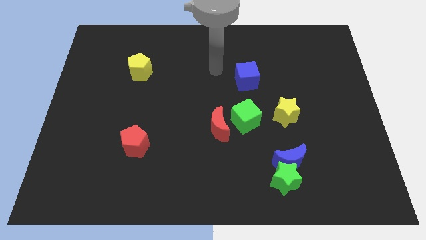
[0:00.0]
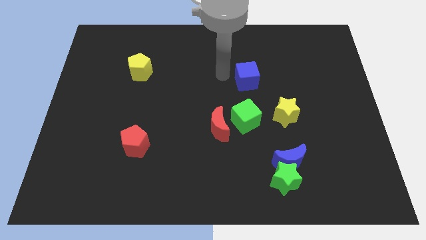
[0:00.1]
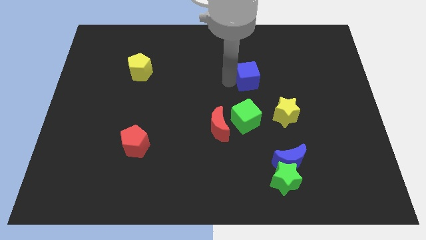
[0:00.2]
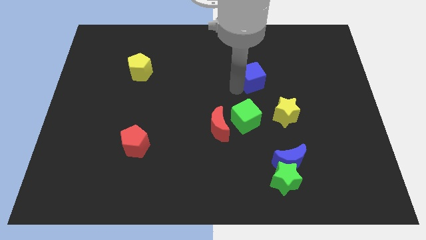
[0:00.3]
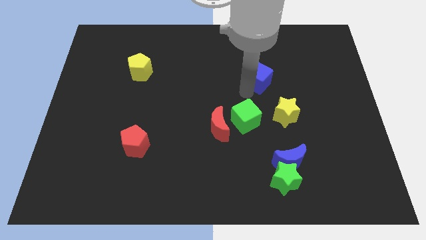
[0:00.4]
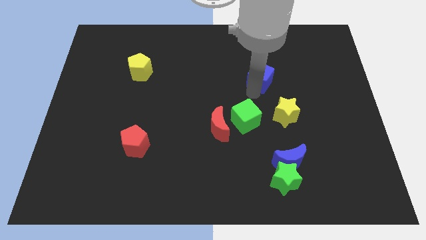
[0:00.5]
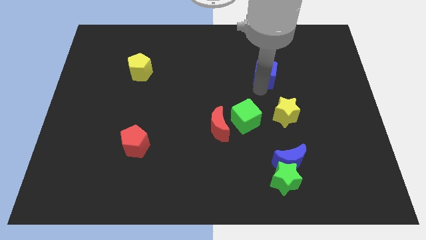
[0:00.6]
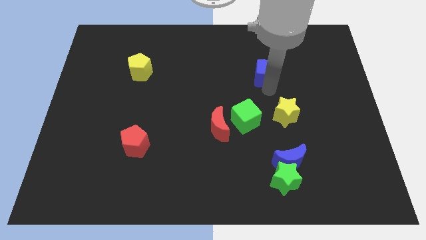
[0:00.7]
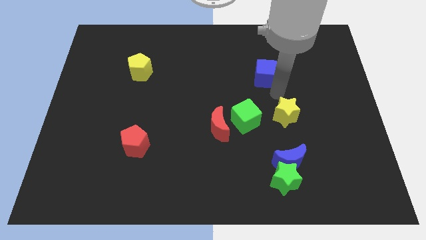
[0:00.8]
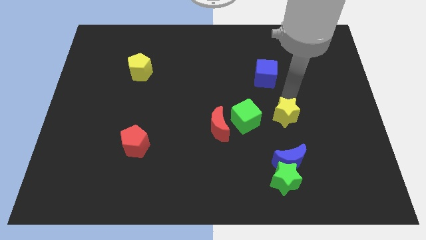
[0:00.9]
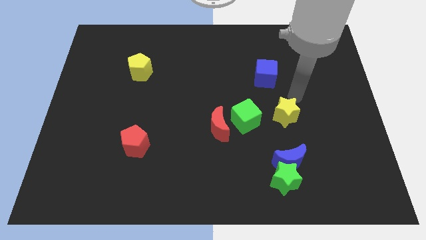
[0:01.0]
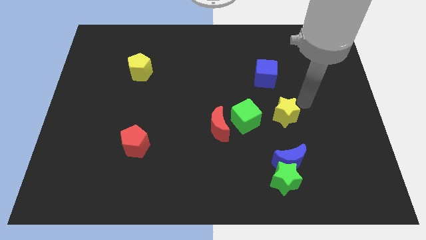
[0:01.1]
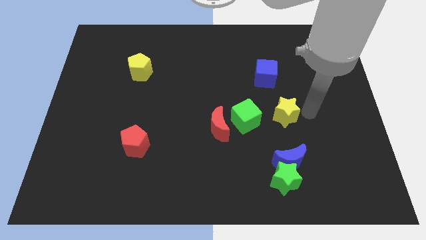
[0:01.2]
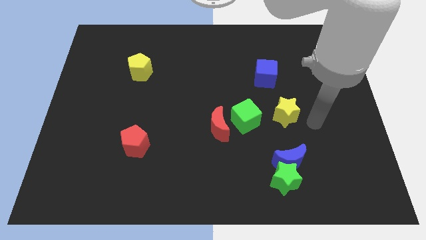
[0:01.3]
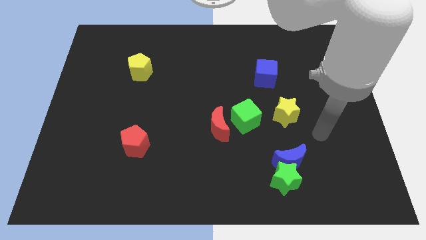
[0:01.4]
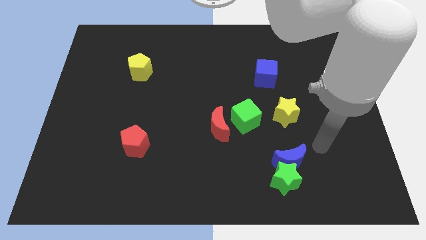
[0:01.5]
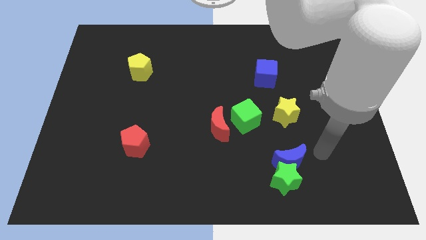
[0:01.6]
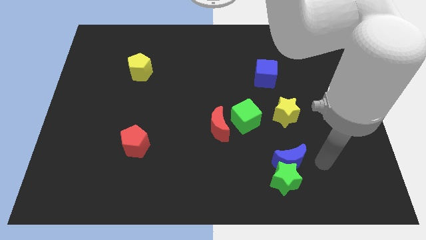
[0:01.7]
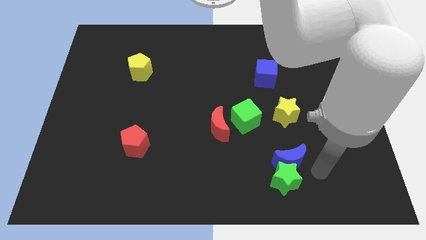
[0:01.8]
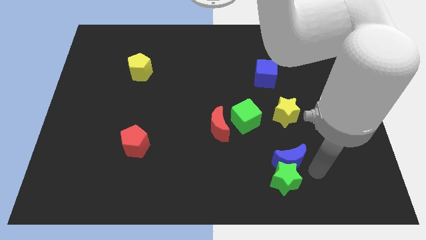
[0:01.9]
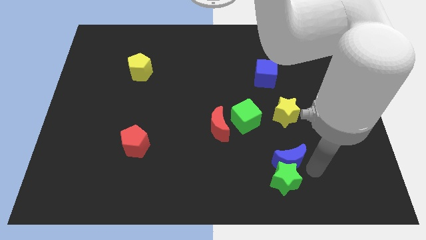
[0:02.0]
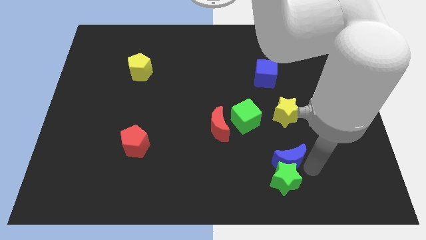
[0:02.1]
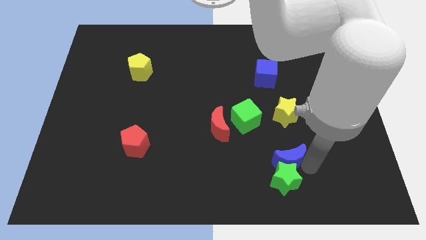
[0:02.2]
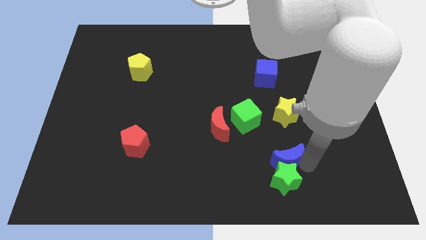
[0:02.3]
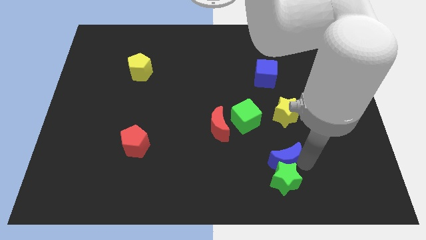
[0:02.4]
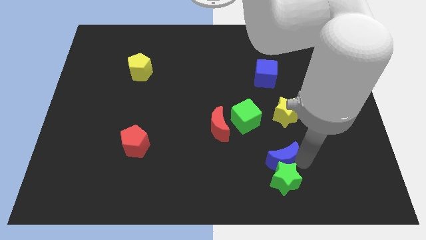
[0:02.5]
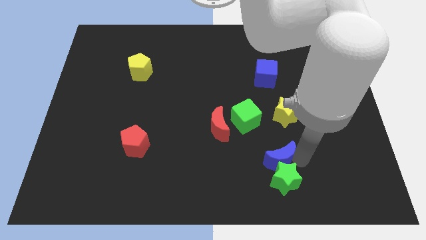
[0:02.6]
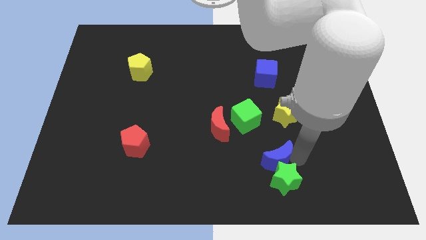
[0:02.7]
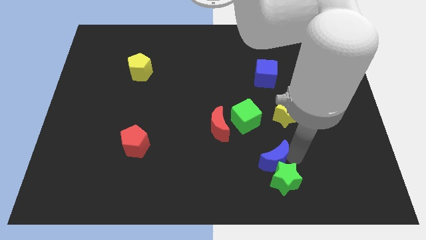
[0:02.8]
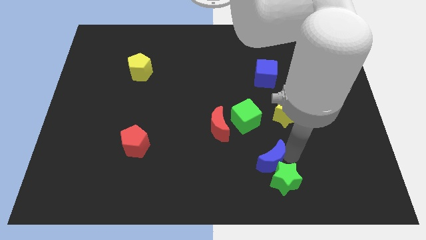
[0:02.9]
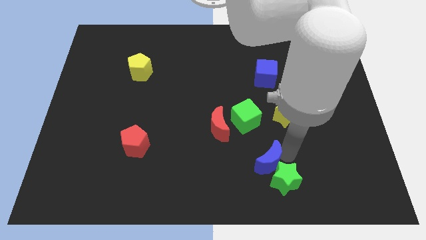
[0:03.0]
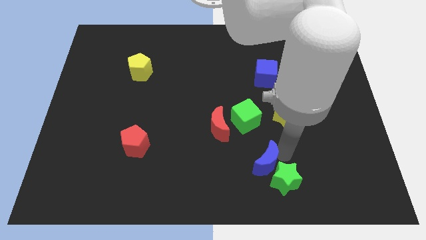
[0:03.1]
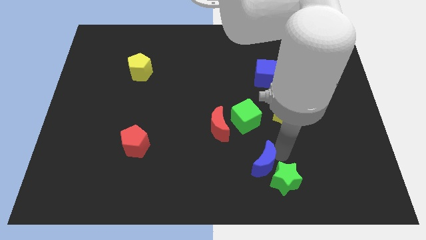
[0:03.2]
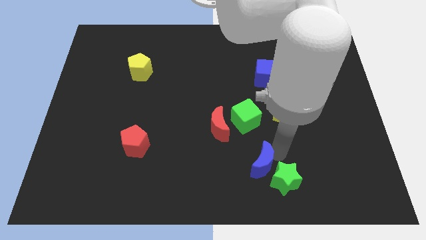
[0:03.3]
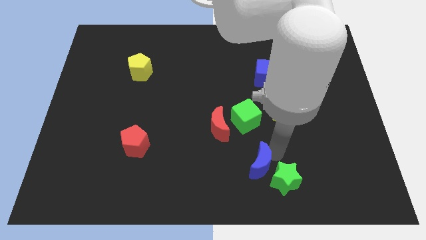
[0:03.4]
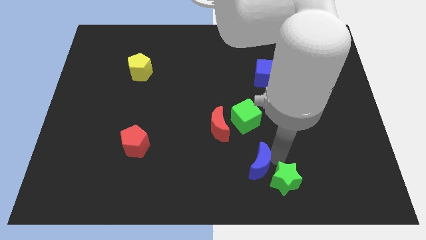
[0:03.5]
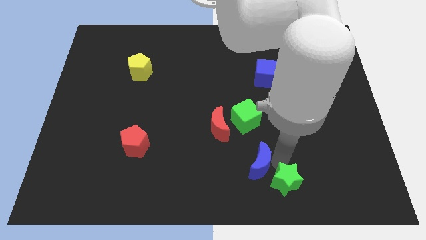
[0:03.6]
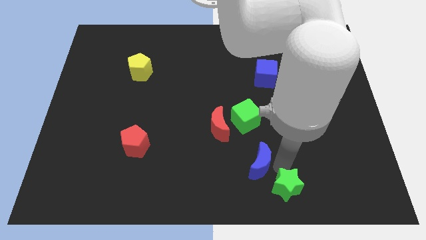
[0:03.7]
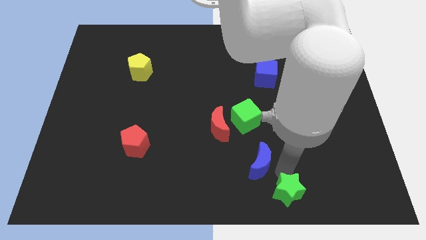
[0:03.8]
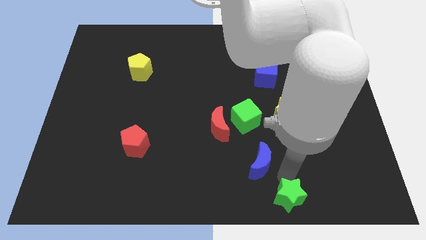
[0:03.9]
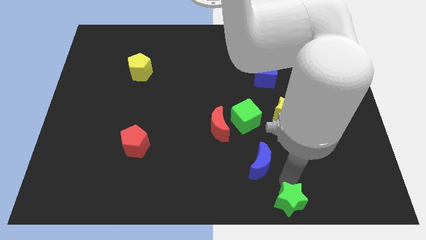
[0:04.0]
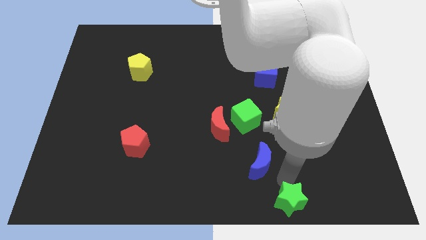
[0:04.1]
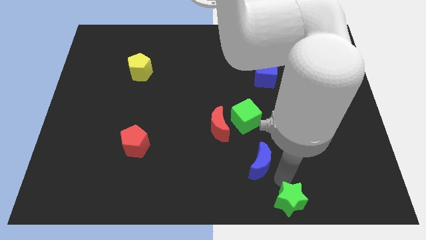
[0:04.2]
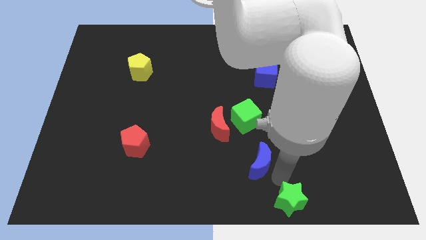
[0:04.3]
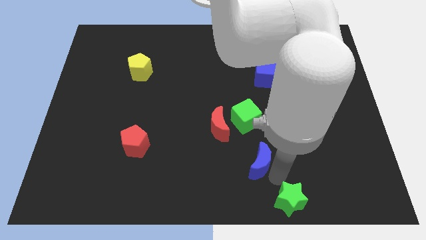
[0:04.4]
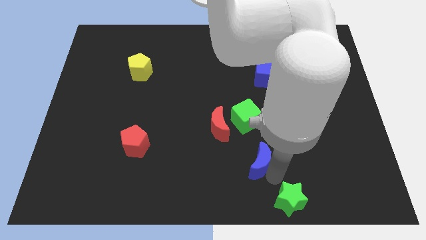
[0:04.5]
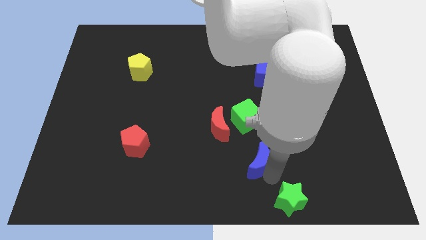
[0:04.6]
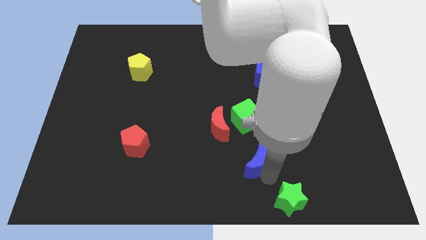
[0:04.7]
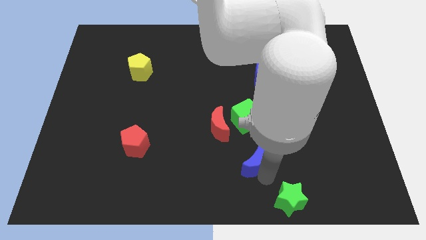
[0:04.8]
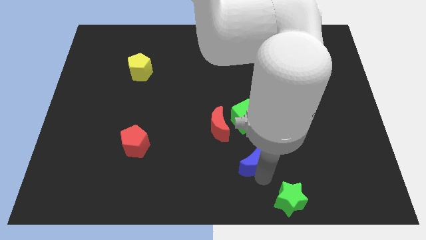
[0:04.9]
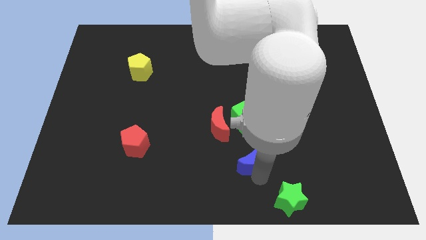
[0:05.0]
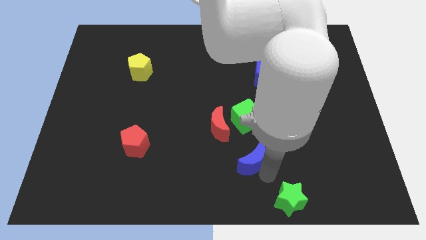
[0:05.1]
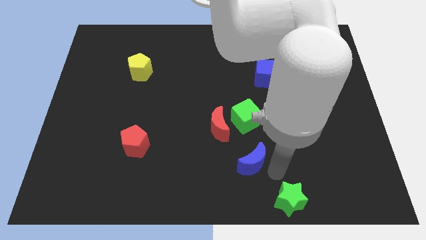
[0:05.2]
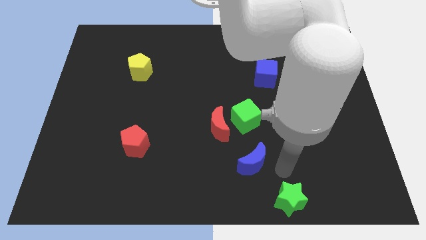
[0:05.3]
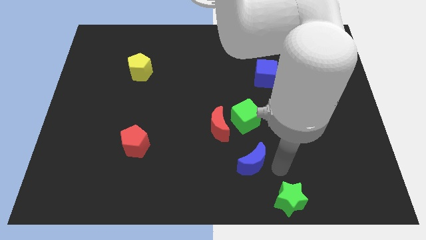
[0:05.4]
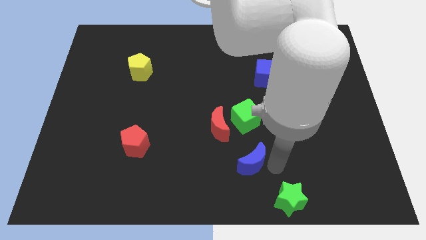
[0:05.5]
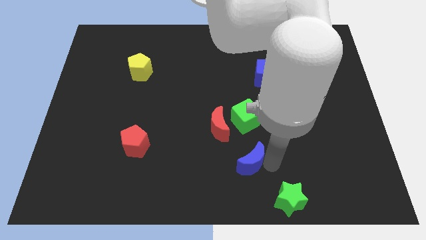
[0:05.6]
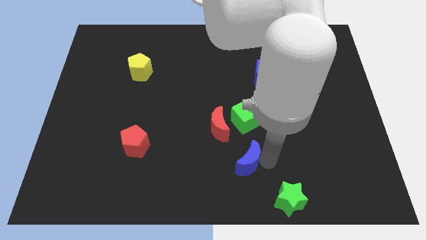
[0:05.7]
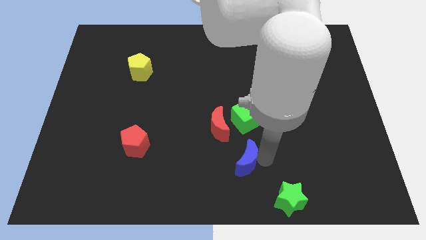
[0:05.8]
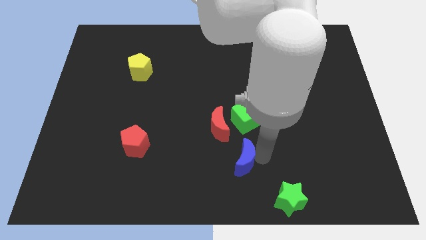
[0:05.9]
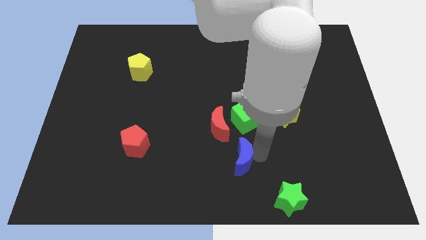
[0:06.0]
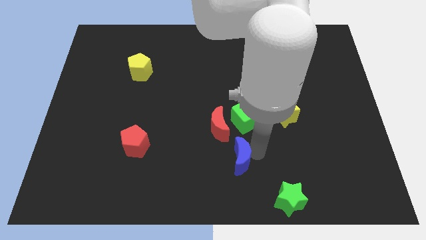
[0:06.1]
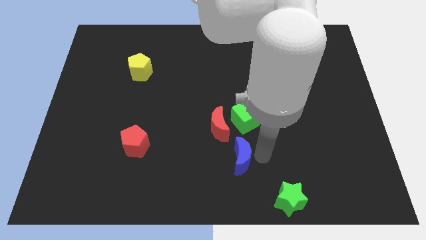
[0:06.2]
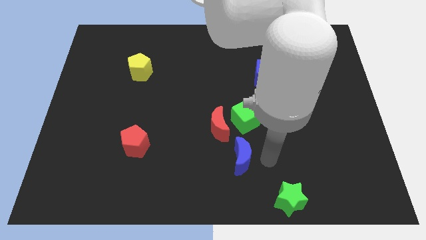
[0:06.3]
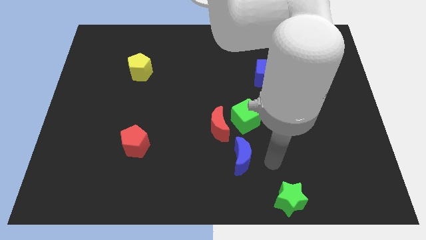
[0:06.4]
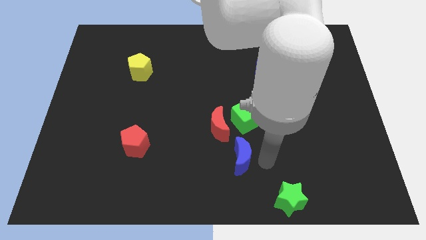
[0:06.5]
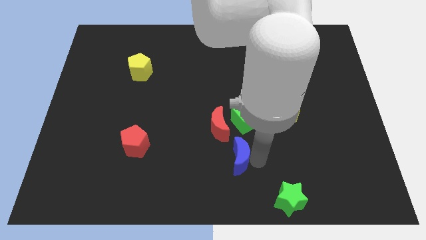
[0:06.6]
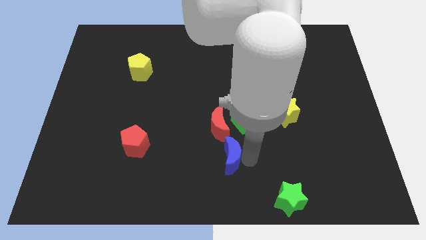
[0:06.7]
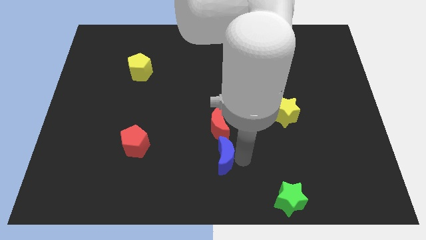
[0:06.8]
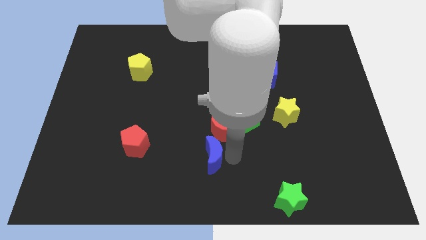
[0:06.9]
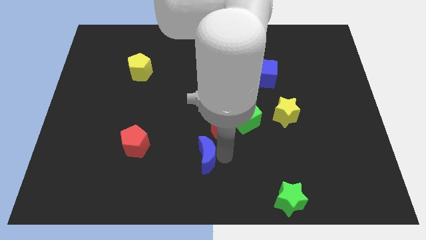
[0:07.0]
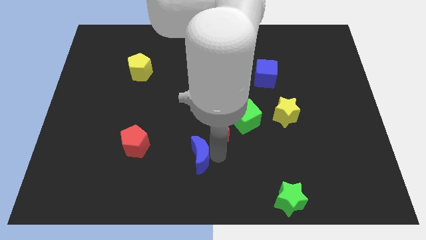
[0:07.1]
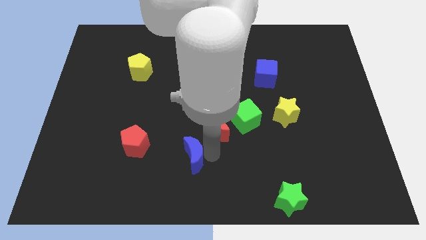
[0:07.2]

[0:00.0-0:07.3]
move the blue moon left

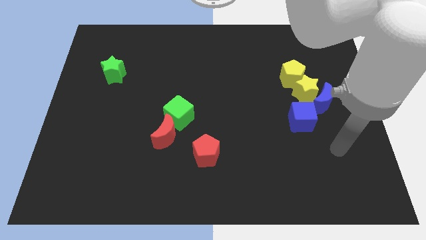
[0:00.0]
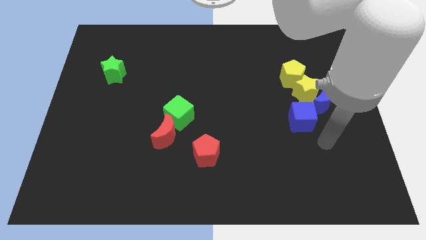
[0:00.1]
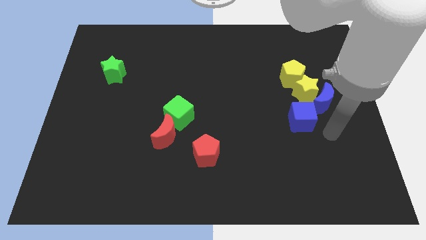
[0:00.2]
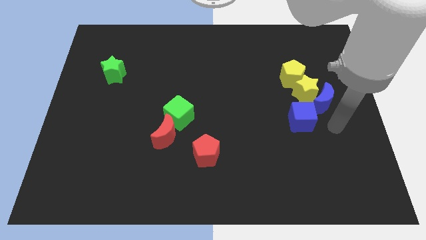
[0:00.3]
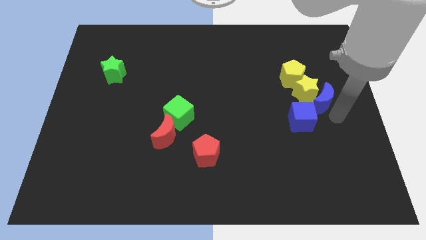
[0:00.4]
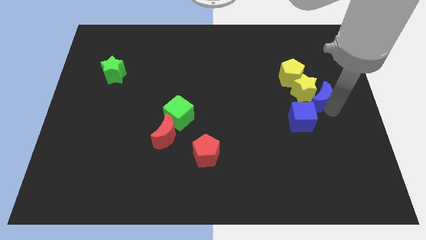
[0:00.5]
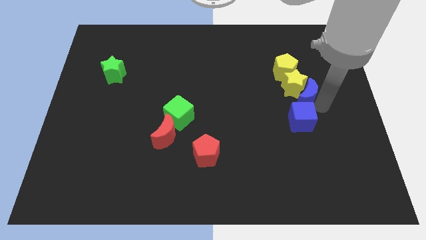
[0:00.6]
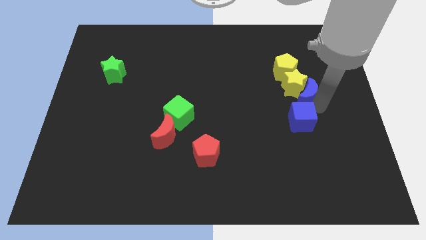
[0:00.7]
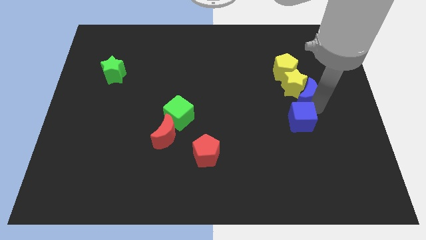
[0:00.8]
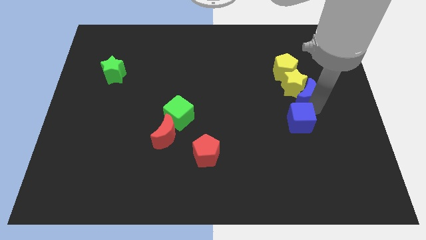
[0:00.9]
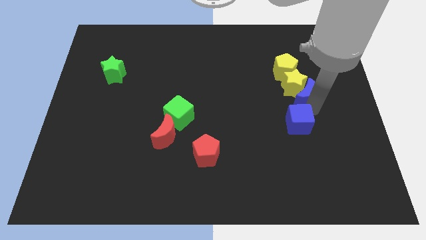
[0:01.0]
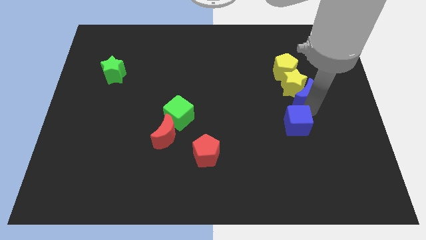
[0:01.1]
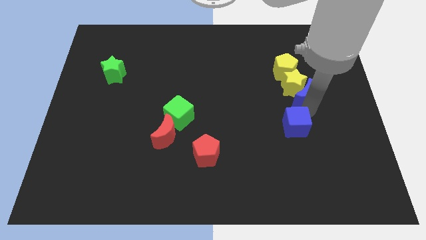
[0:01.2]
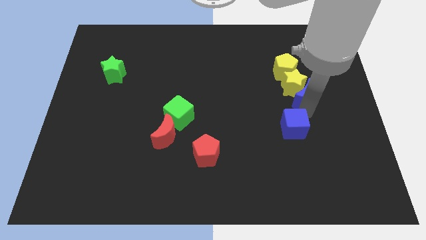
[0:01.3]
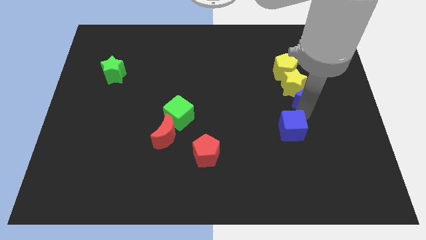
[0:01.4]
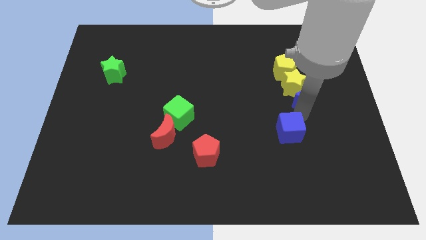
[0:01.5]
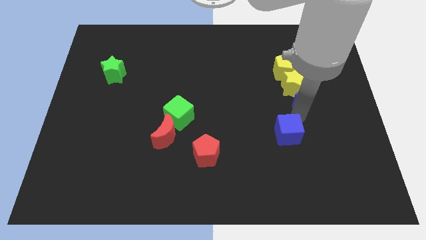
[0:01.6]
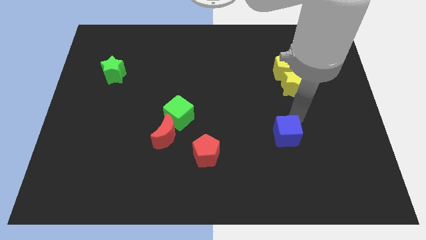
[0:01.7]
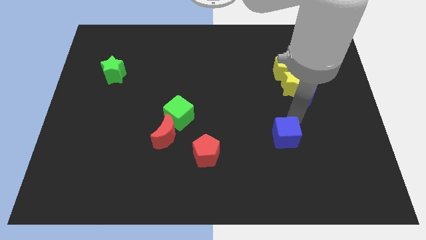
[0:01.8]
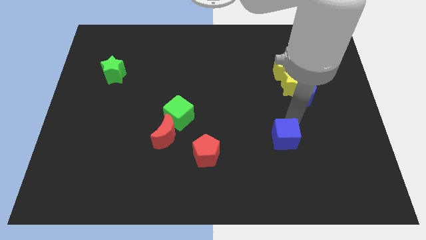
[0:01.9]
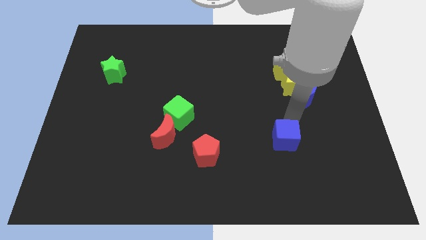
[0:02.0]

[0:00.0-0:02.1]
slightly slide the blue cube downwards and then to the left
